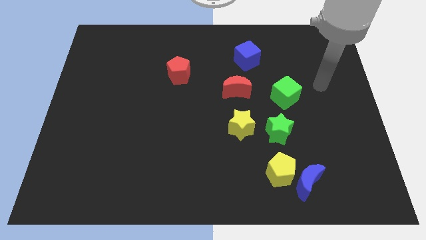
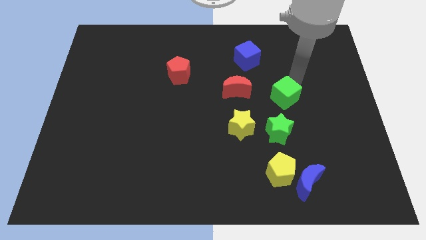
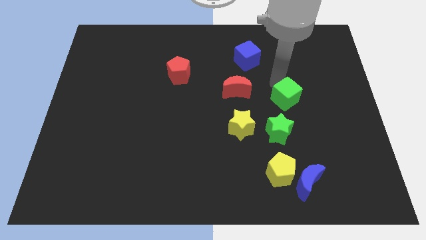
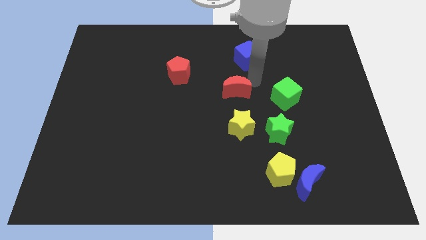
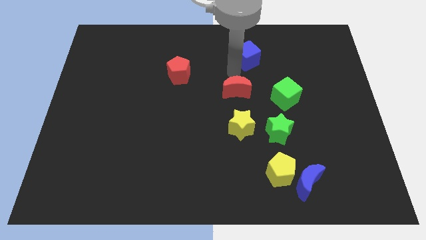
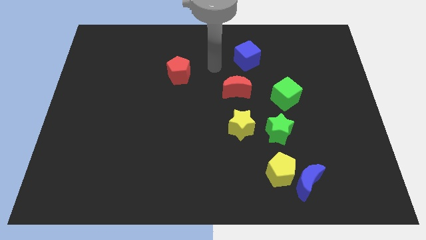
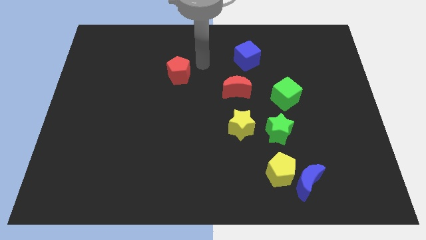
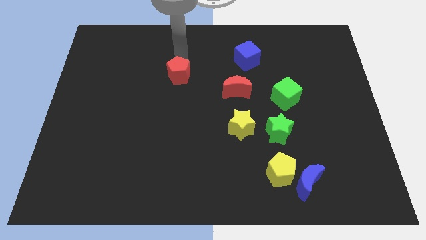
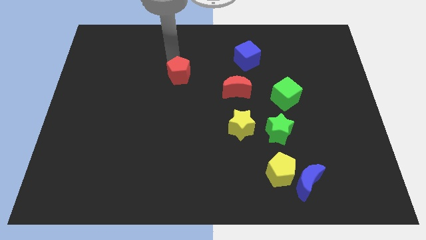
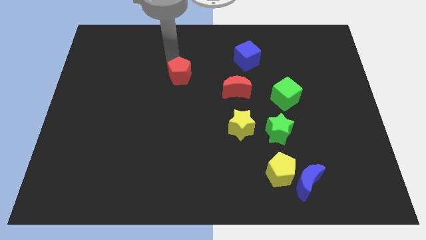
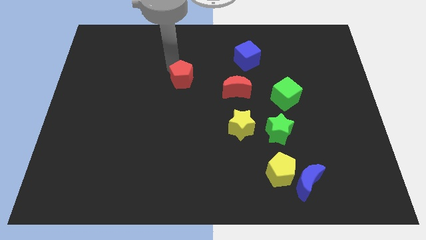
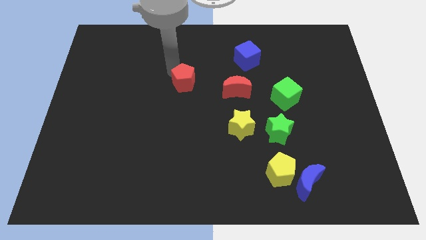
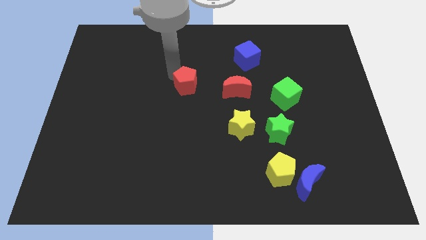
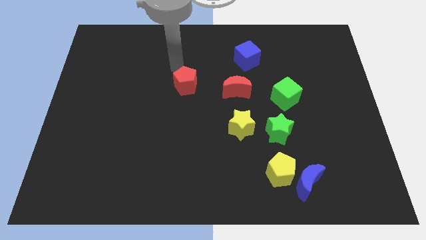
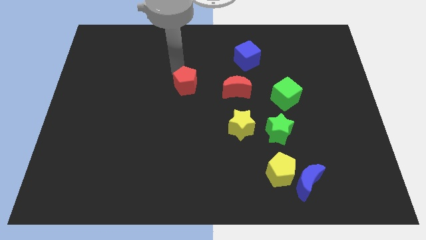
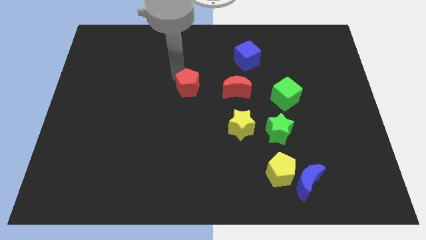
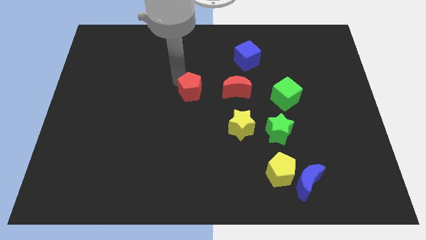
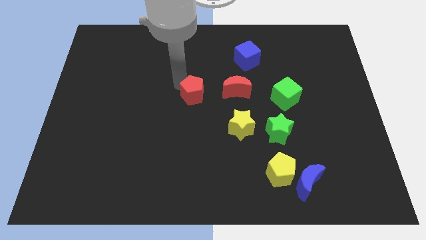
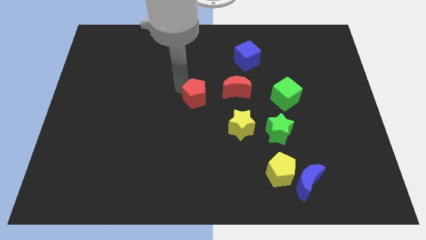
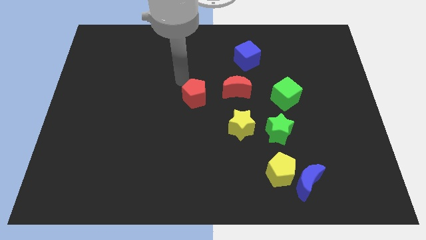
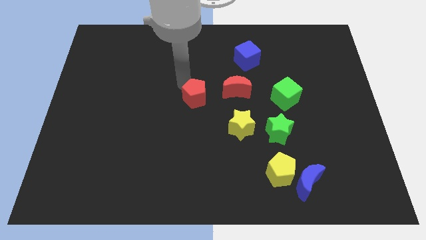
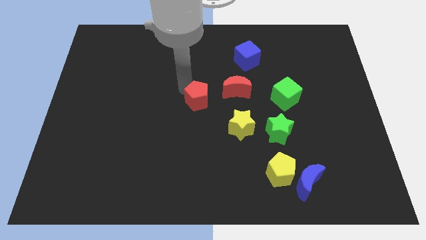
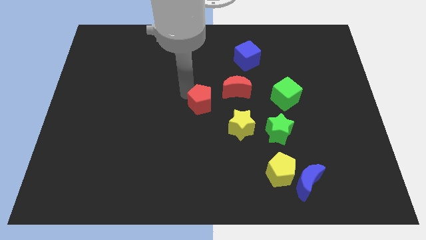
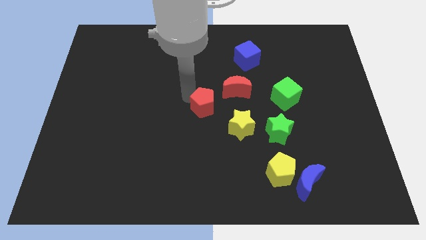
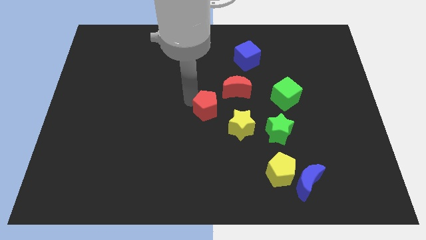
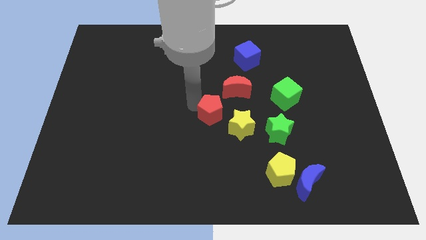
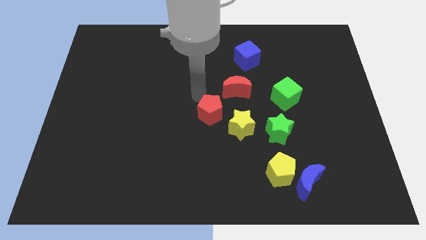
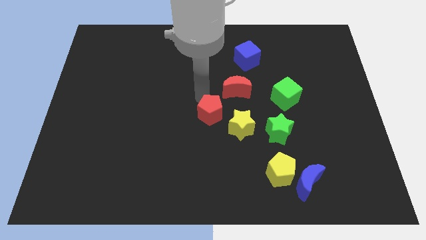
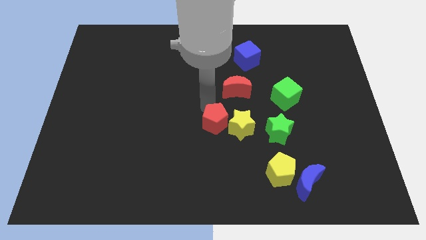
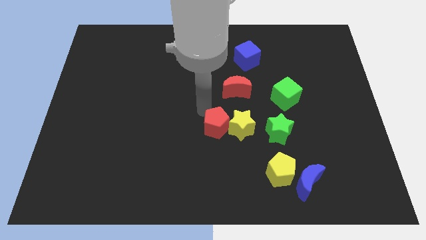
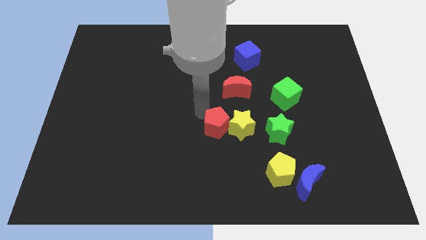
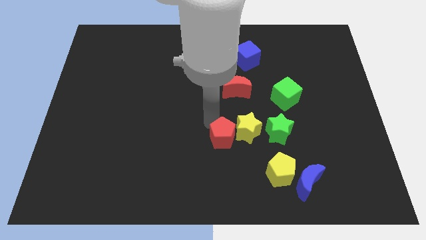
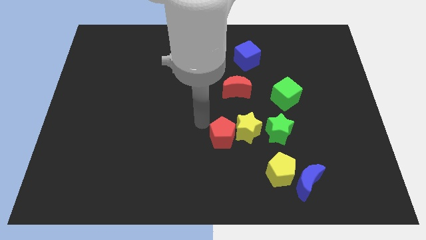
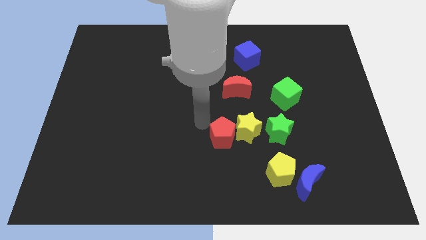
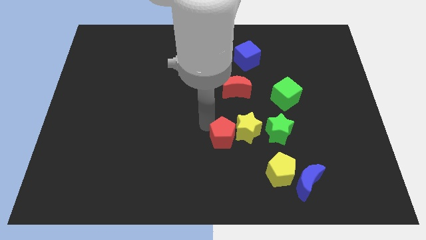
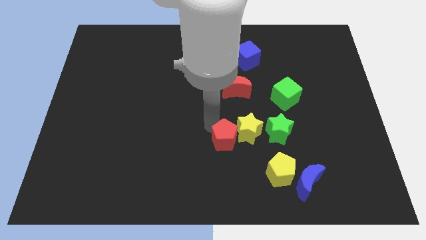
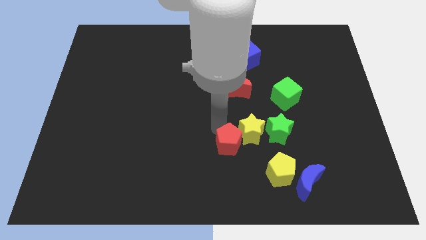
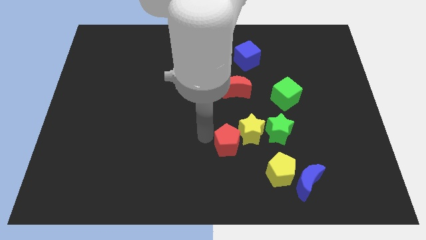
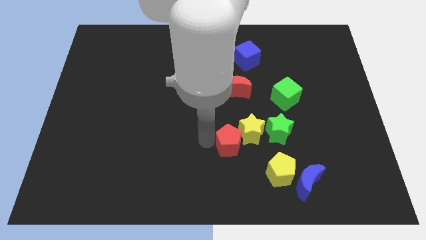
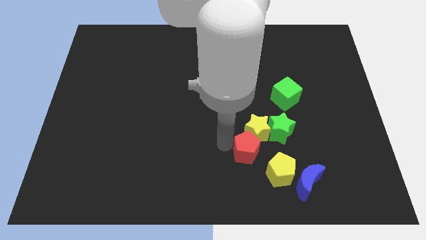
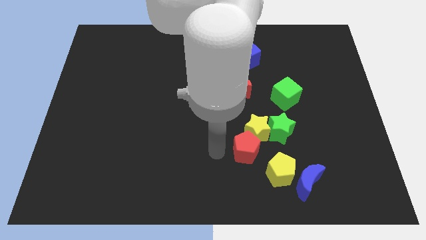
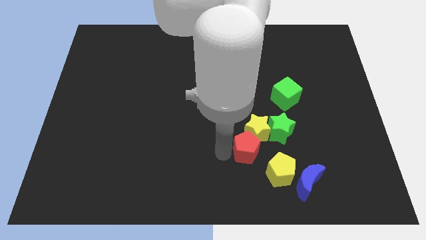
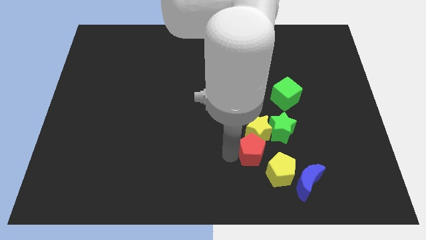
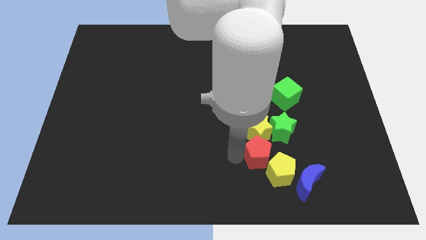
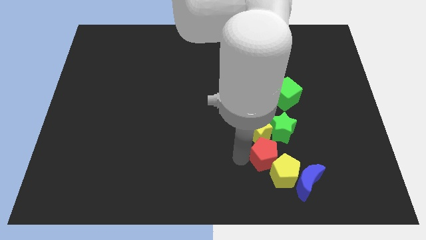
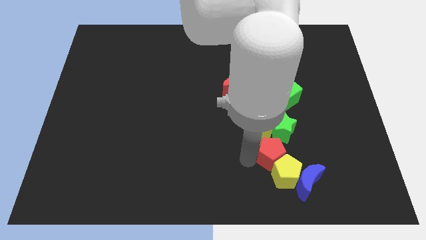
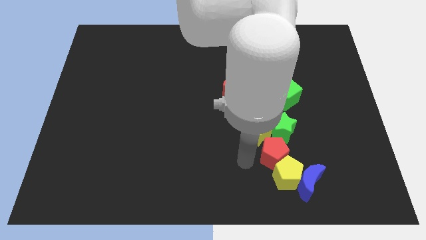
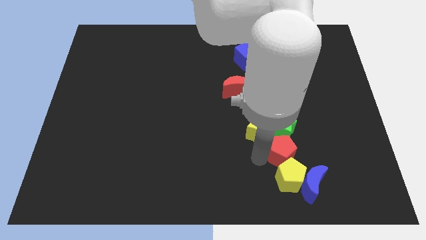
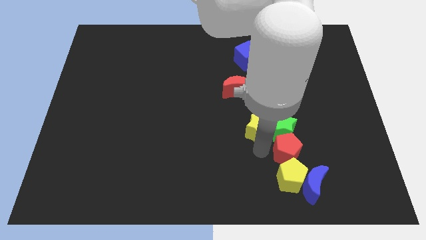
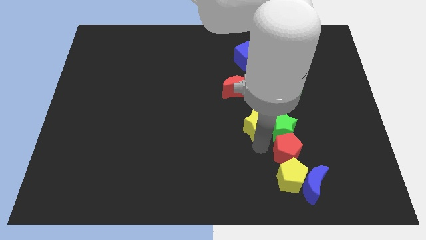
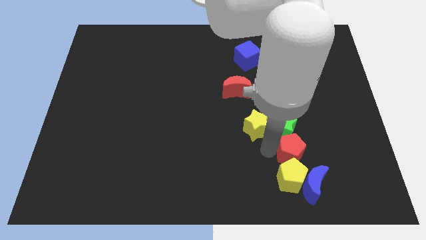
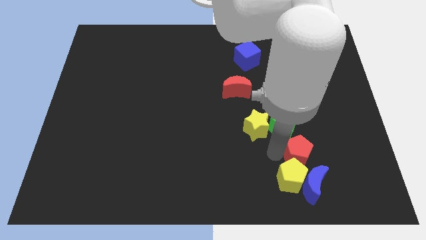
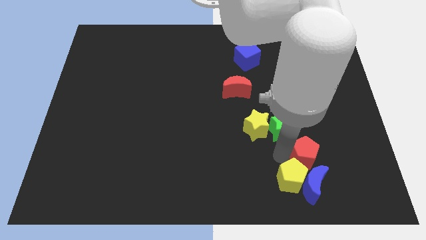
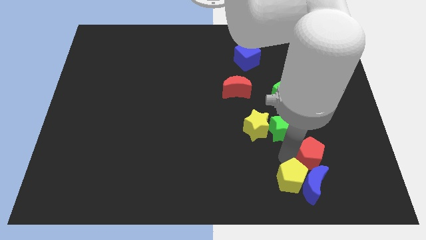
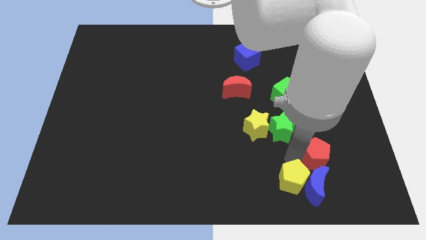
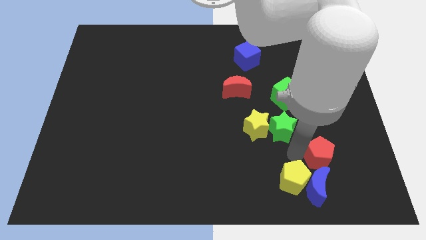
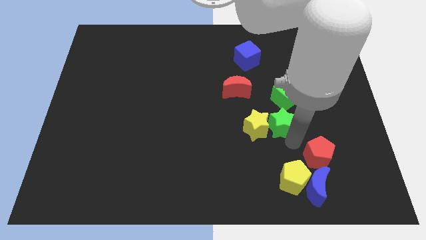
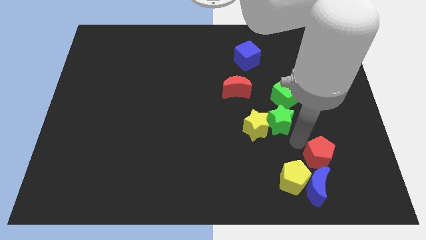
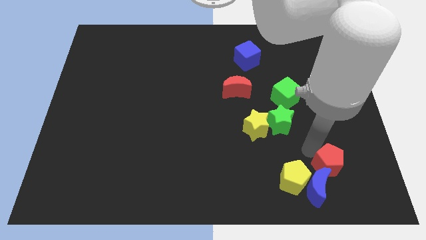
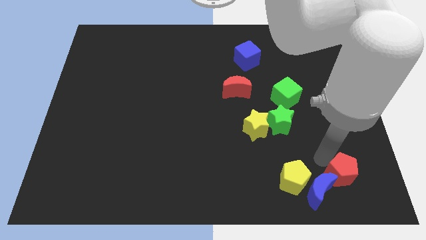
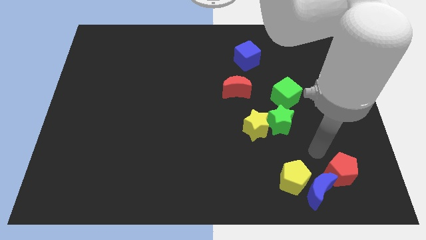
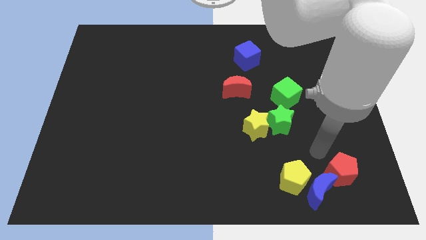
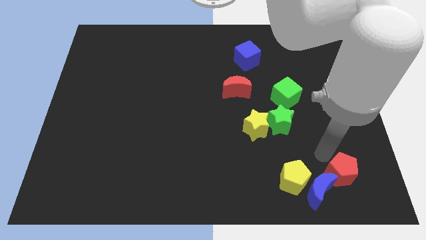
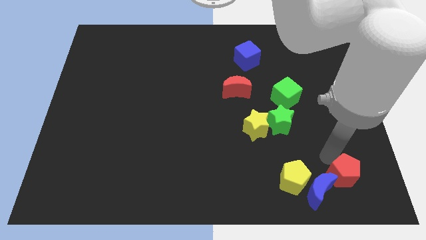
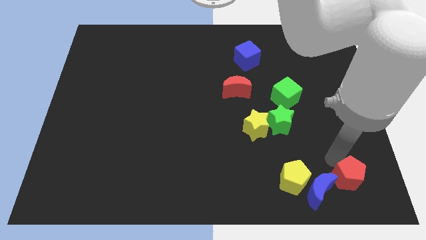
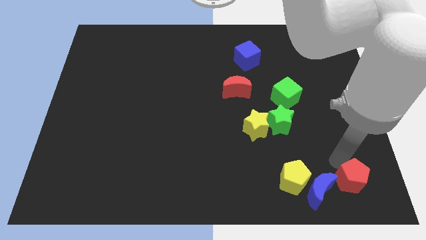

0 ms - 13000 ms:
slide the red pentagon to the bottom right of the board

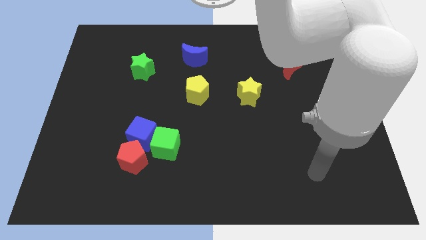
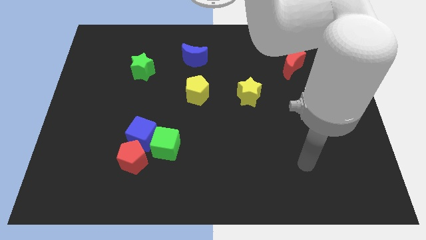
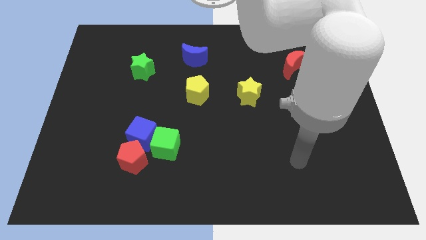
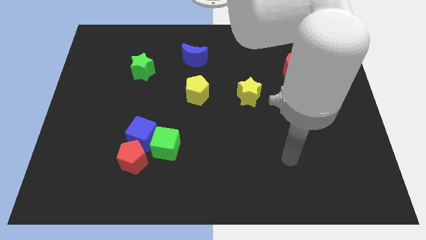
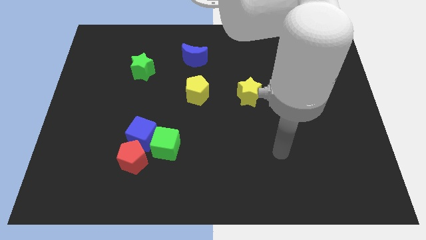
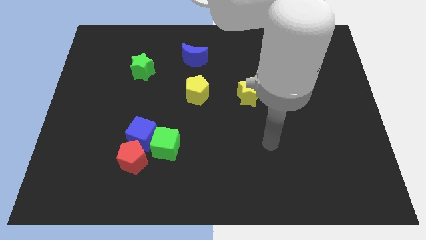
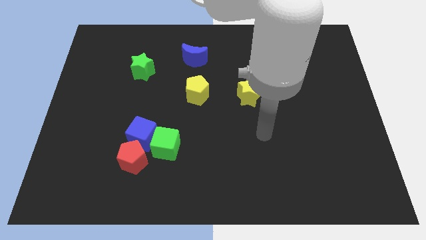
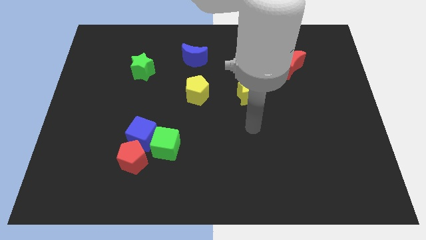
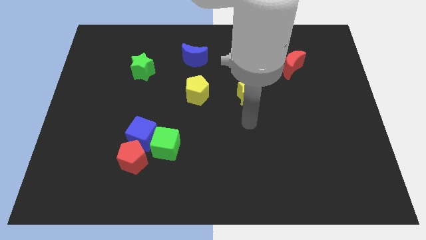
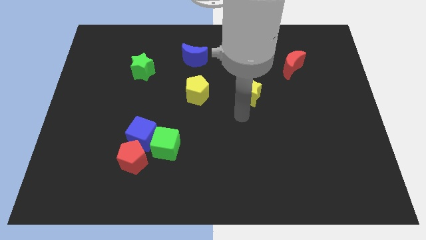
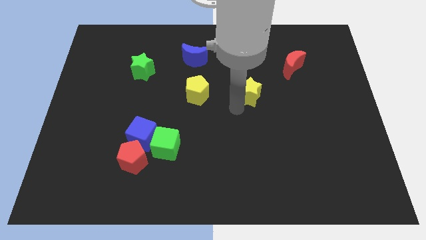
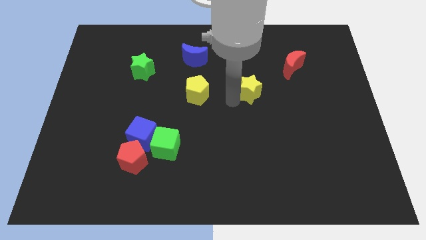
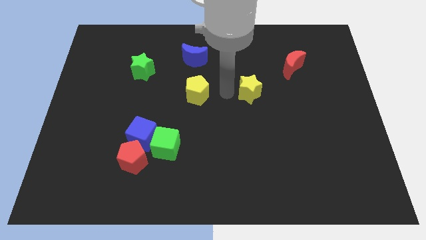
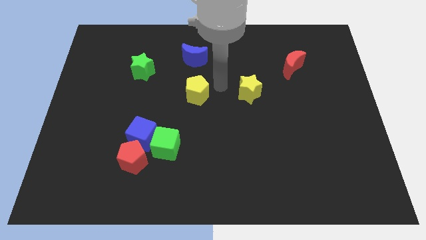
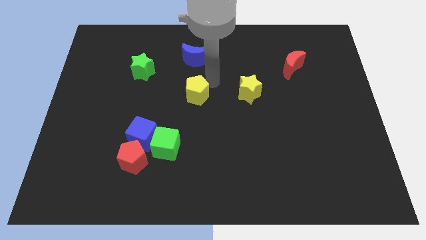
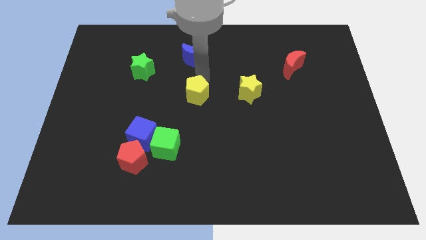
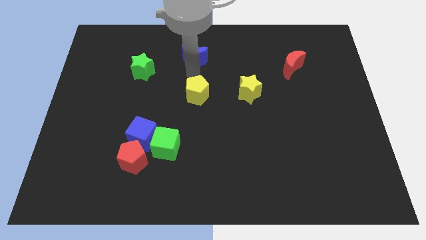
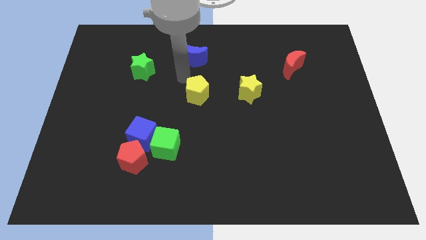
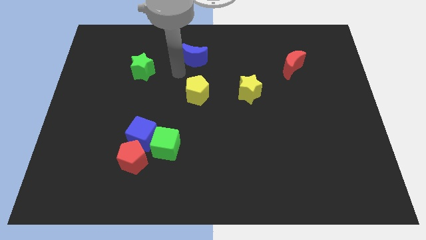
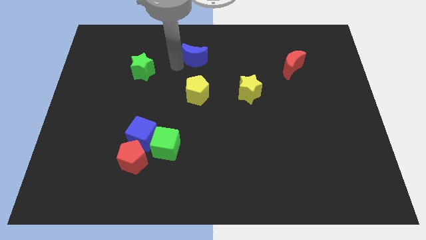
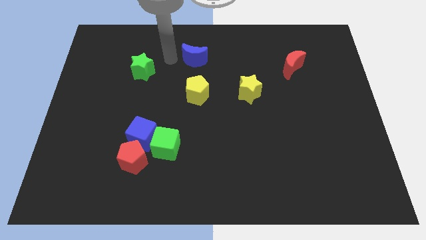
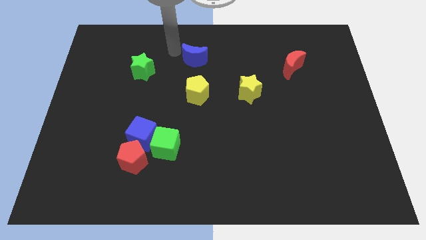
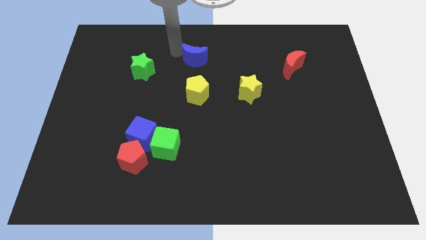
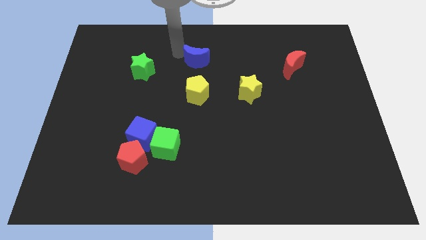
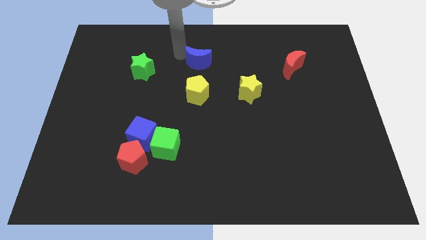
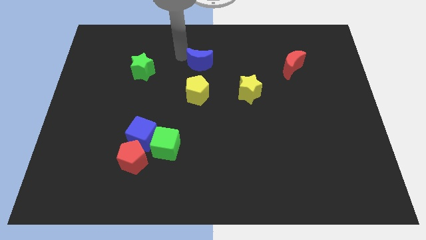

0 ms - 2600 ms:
push the blue moon to the center
